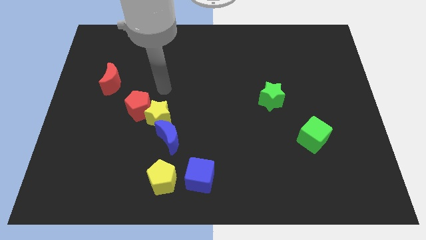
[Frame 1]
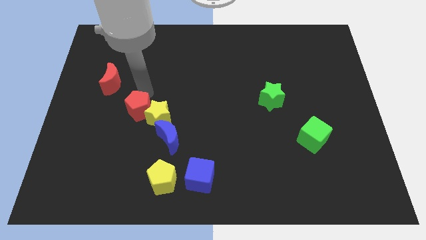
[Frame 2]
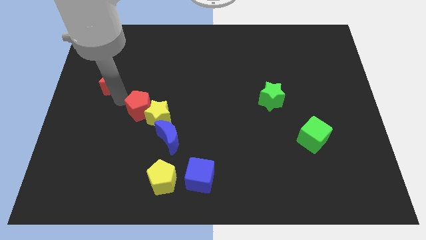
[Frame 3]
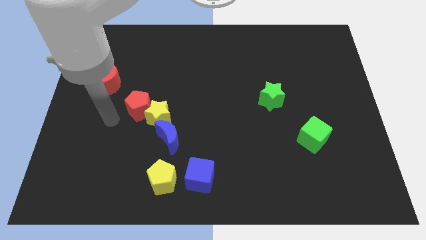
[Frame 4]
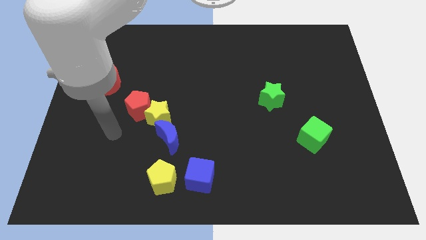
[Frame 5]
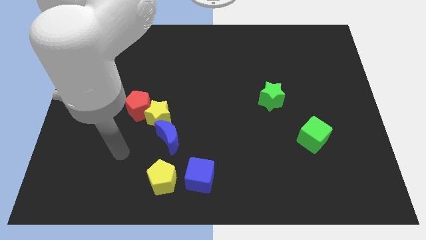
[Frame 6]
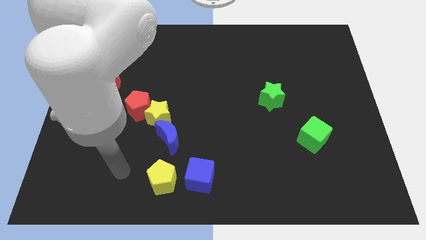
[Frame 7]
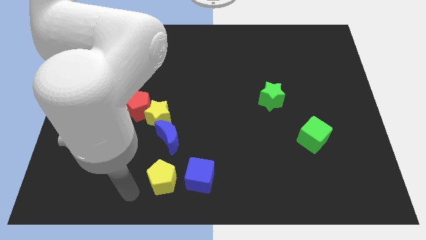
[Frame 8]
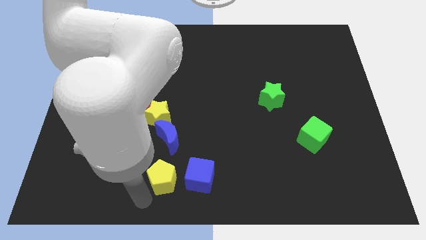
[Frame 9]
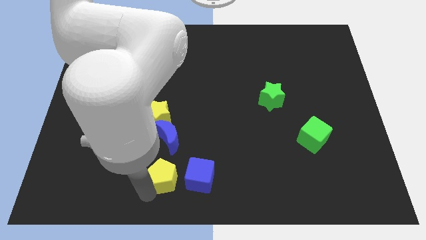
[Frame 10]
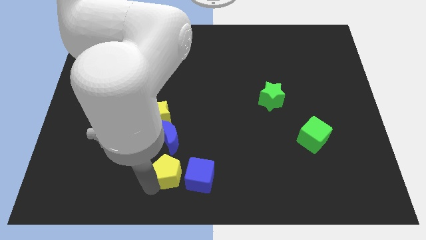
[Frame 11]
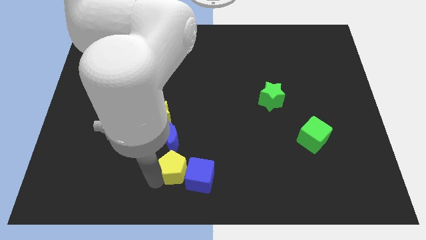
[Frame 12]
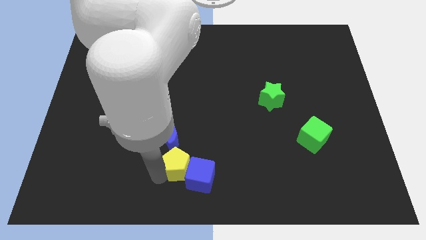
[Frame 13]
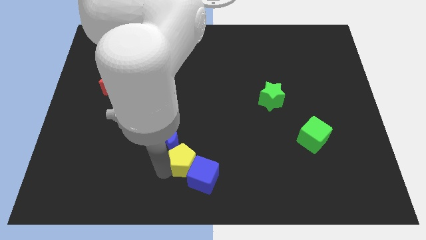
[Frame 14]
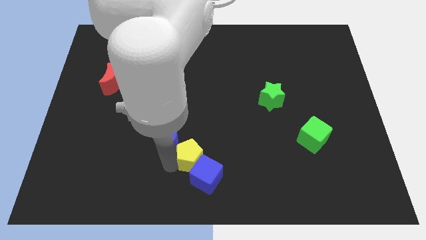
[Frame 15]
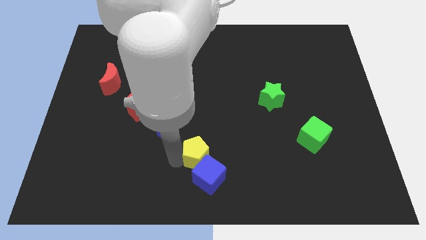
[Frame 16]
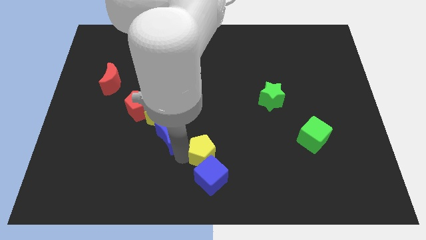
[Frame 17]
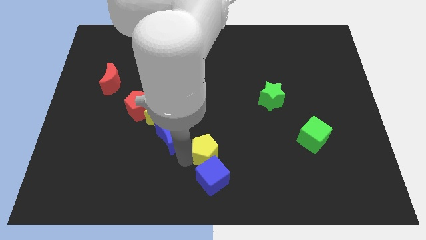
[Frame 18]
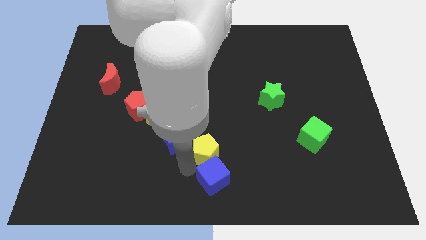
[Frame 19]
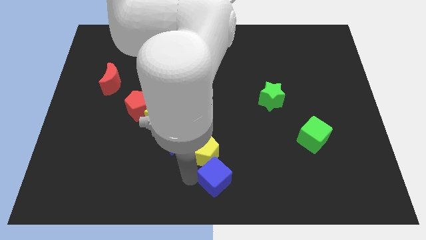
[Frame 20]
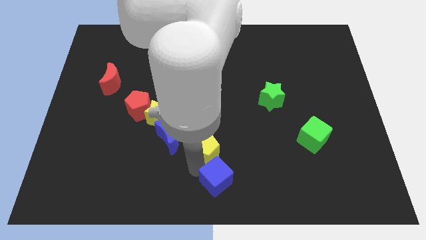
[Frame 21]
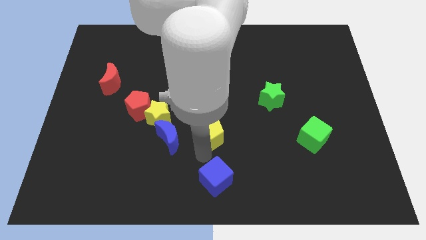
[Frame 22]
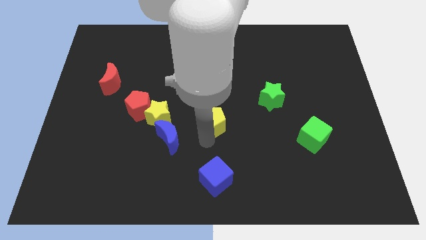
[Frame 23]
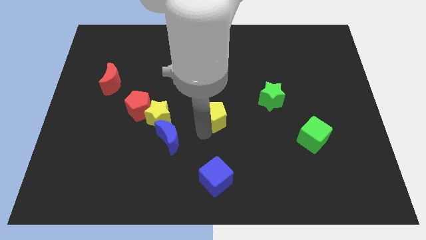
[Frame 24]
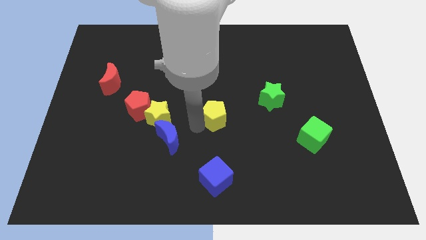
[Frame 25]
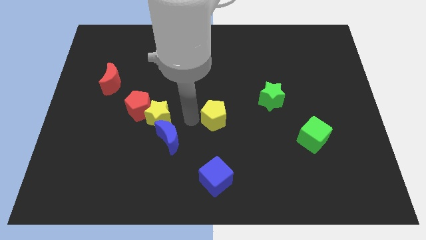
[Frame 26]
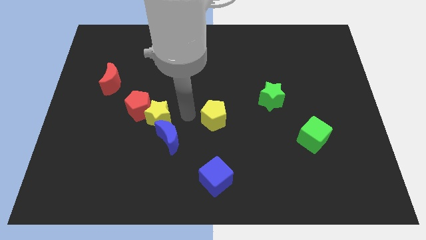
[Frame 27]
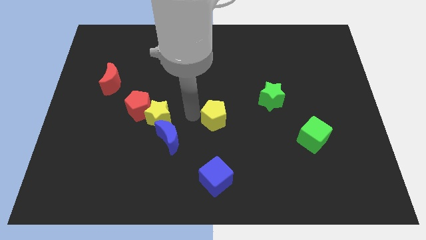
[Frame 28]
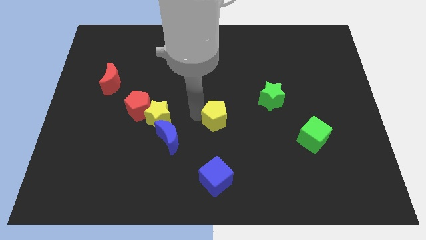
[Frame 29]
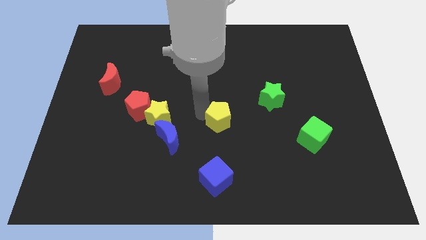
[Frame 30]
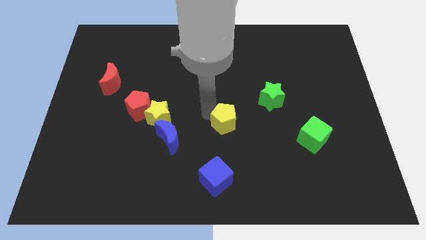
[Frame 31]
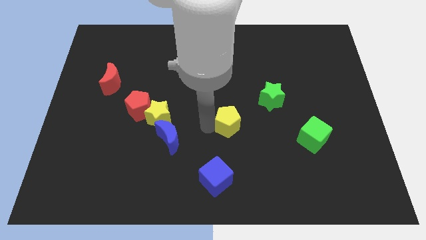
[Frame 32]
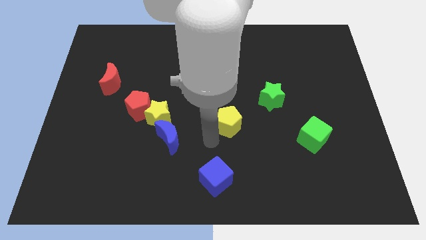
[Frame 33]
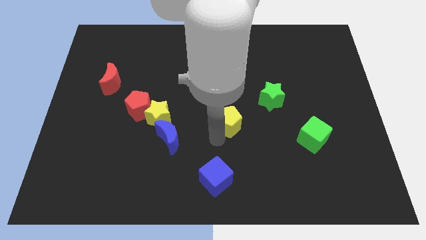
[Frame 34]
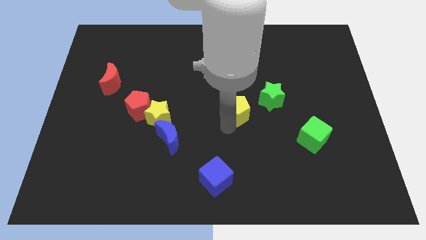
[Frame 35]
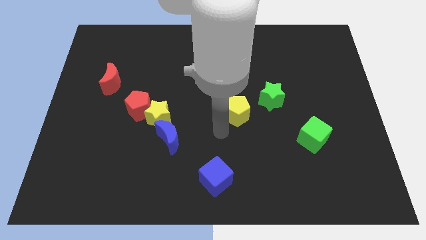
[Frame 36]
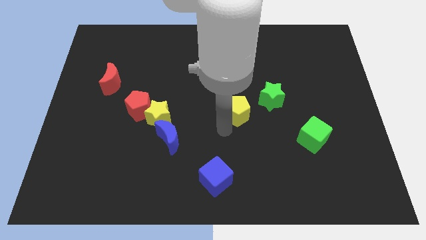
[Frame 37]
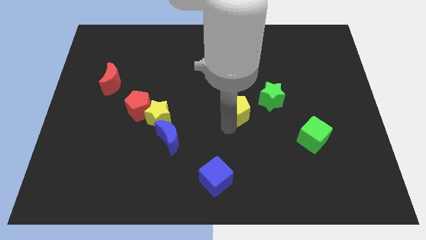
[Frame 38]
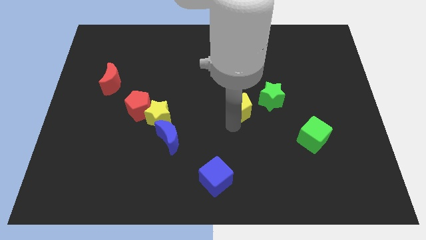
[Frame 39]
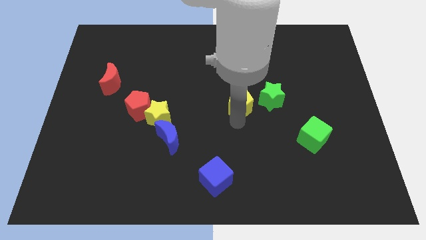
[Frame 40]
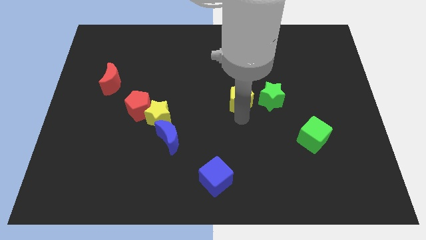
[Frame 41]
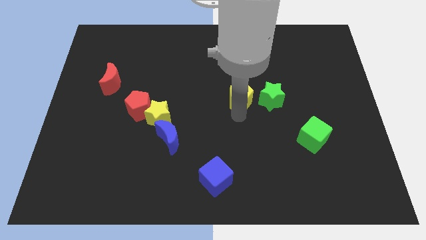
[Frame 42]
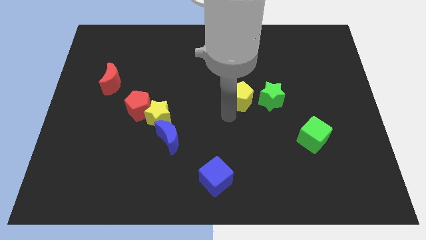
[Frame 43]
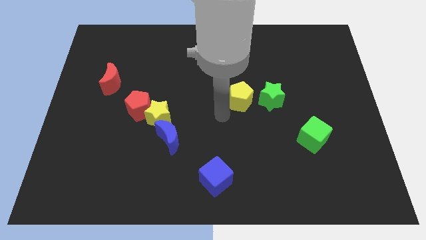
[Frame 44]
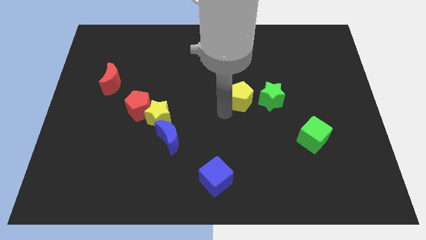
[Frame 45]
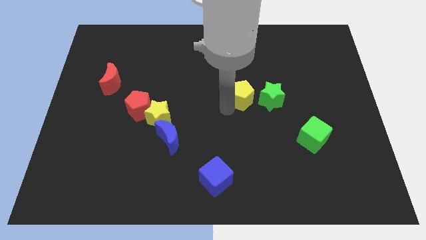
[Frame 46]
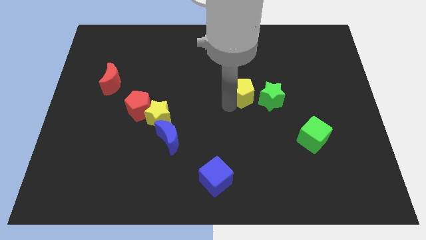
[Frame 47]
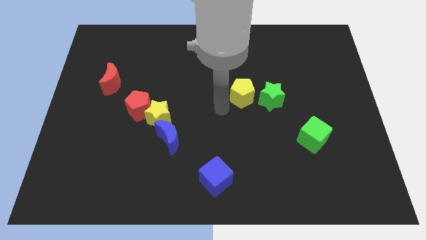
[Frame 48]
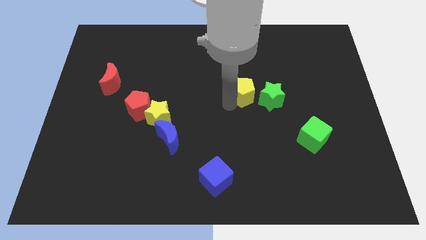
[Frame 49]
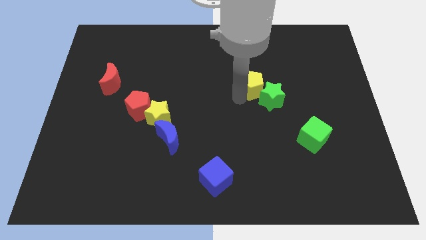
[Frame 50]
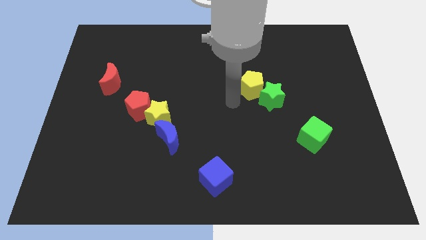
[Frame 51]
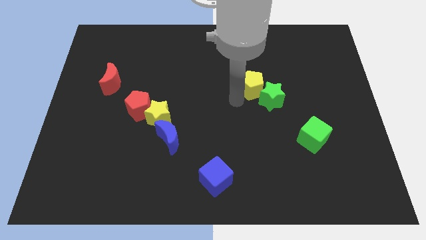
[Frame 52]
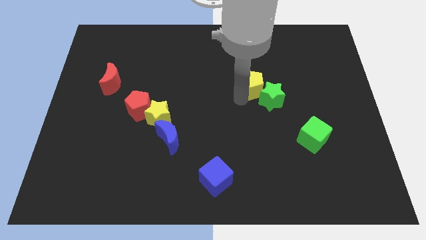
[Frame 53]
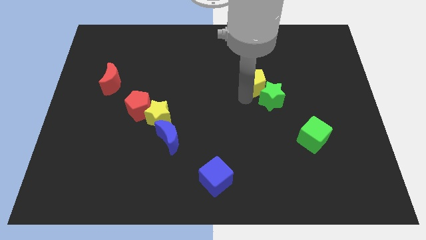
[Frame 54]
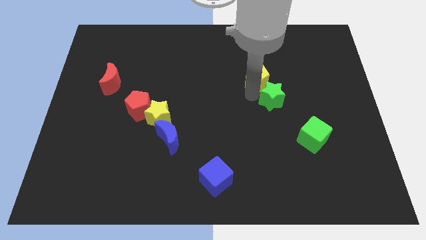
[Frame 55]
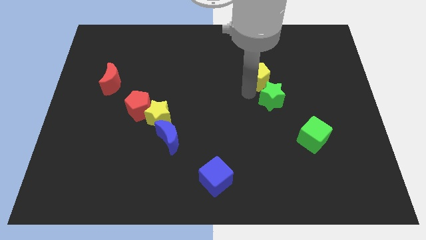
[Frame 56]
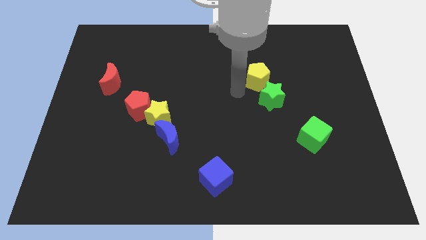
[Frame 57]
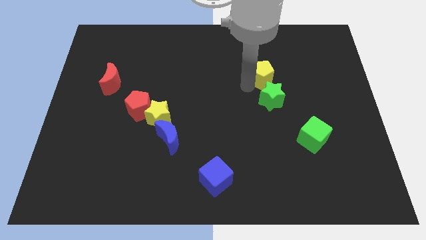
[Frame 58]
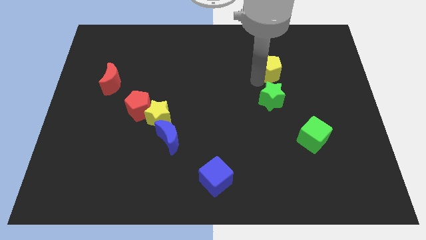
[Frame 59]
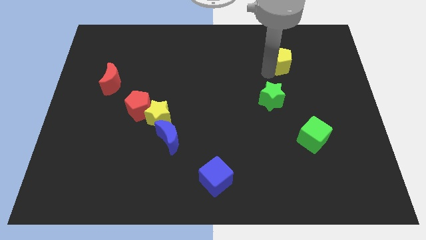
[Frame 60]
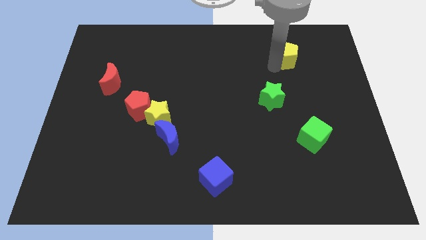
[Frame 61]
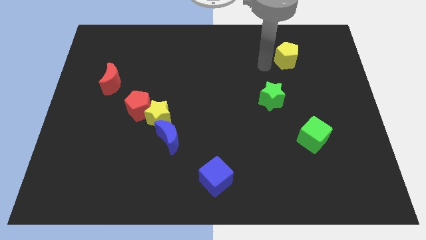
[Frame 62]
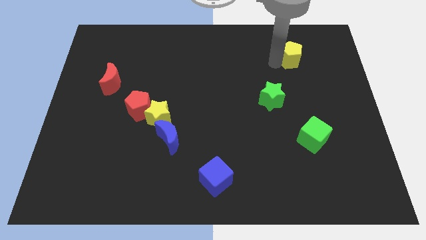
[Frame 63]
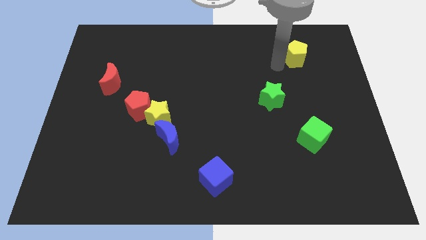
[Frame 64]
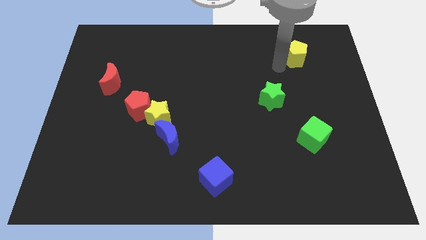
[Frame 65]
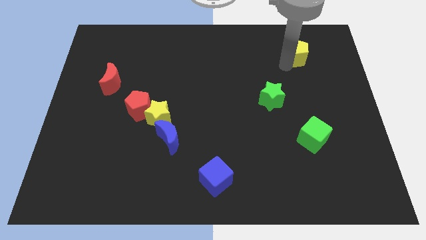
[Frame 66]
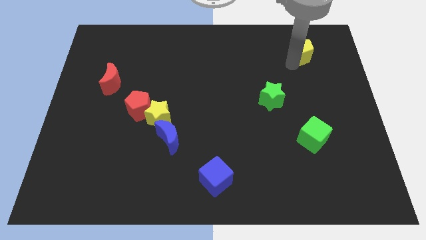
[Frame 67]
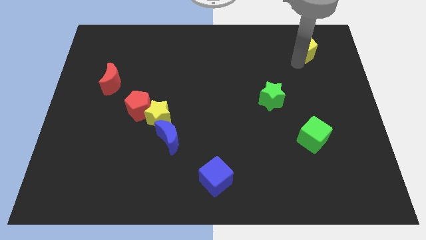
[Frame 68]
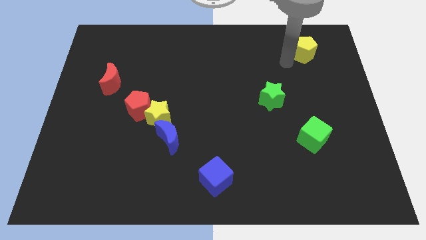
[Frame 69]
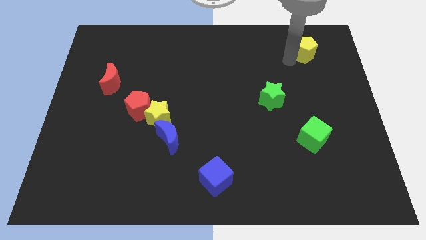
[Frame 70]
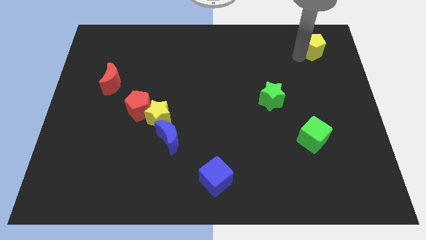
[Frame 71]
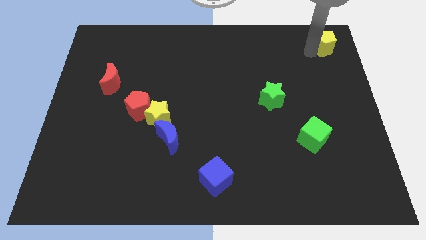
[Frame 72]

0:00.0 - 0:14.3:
push the yellow pentagon to the top right corner
